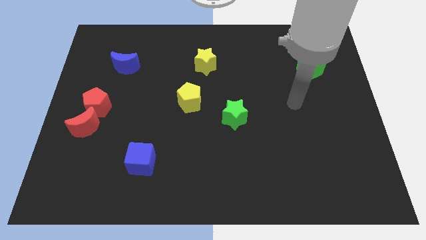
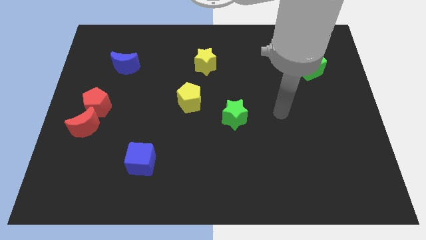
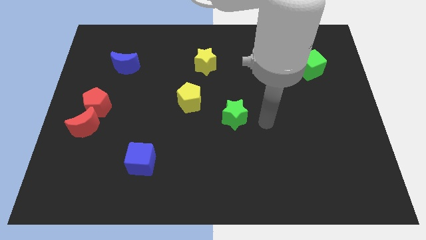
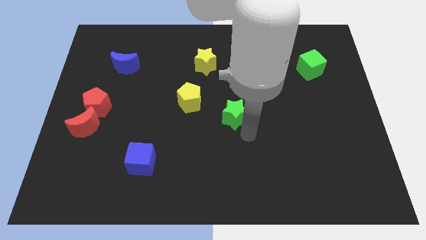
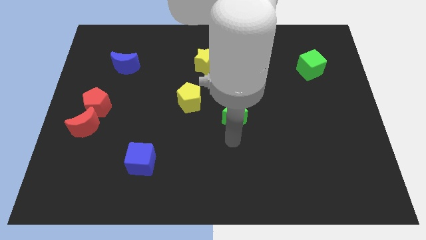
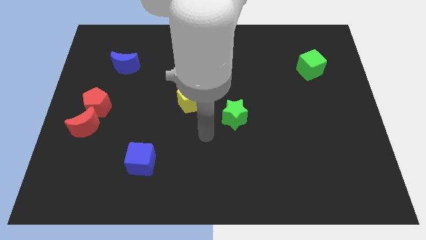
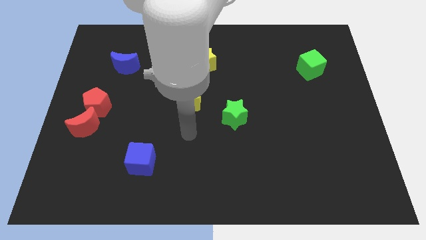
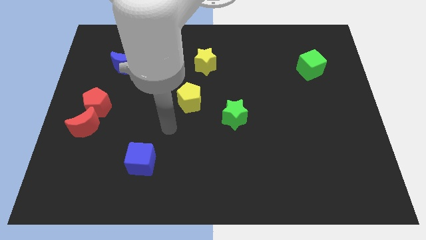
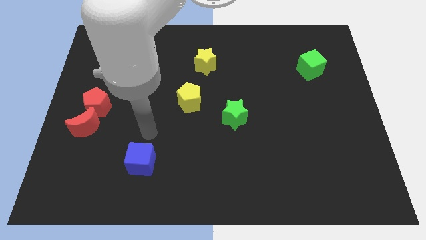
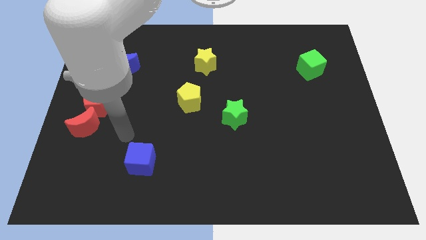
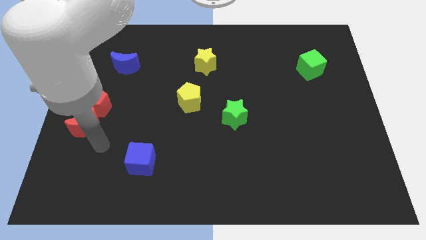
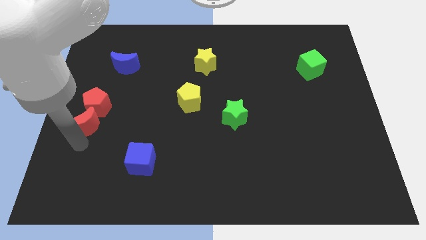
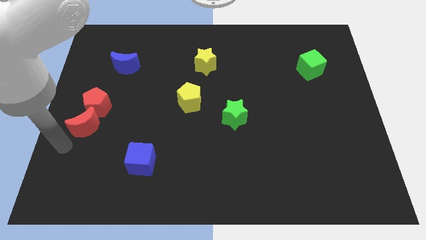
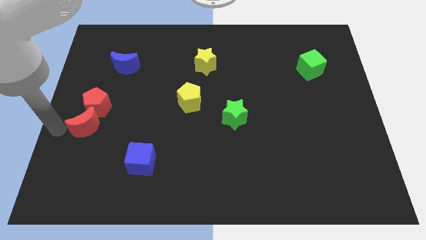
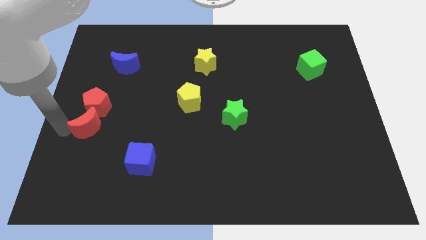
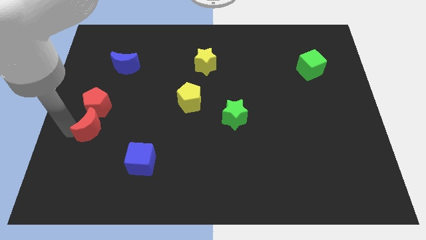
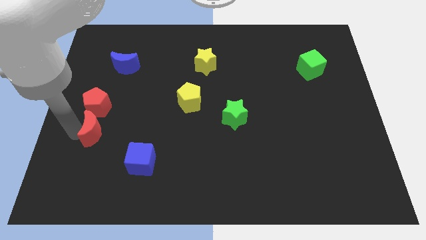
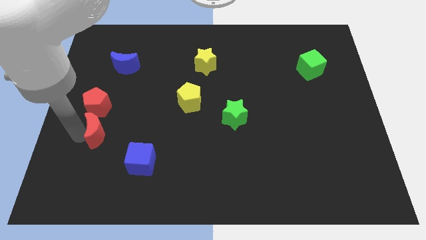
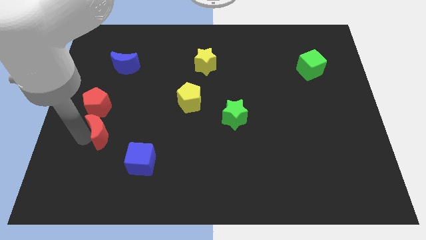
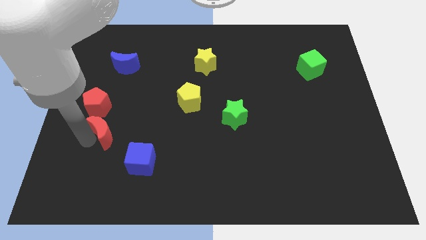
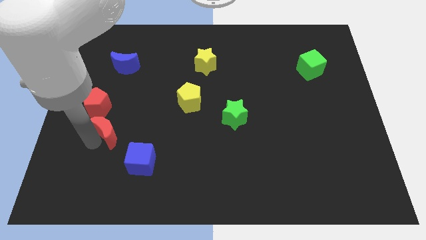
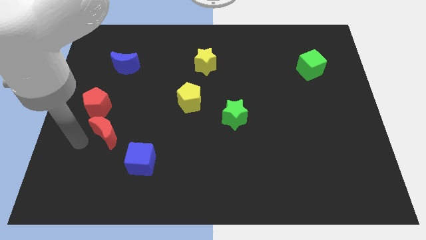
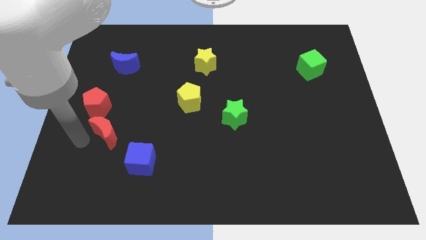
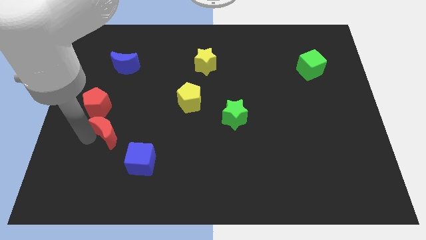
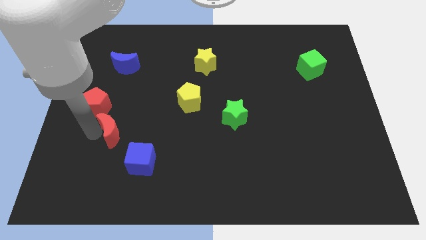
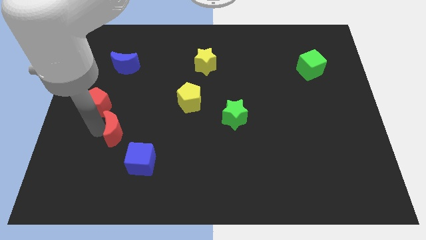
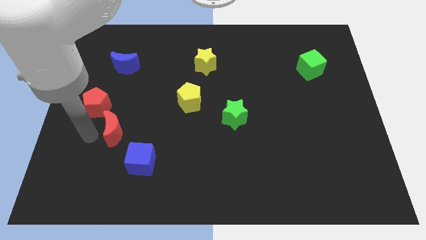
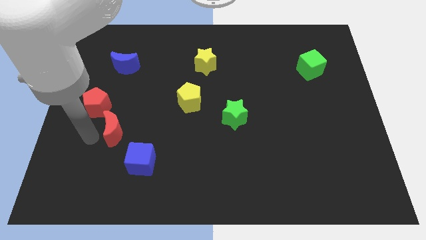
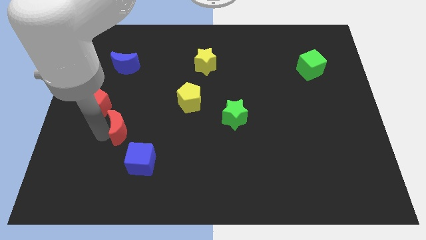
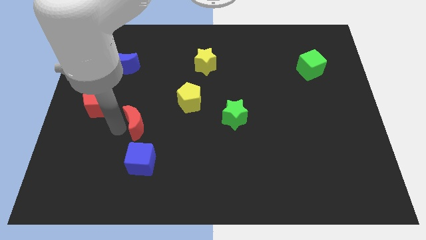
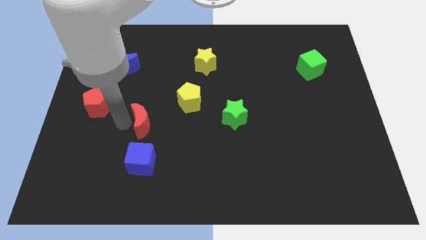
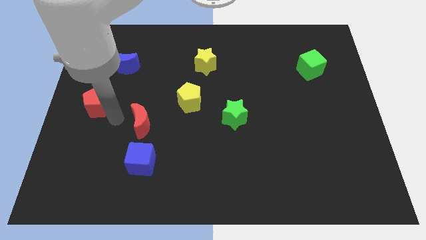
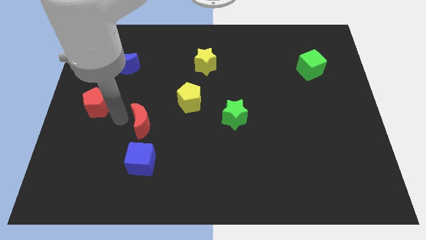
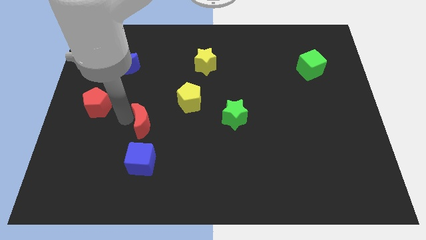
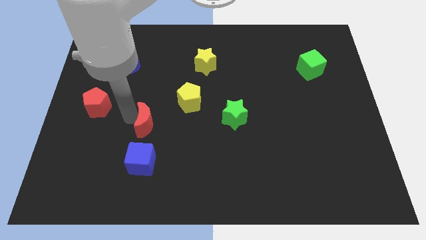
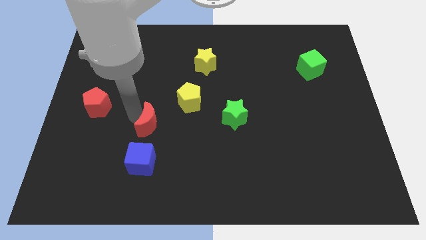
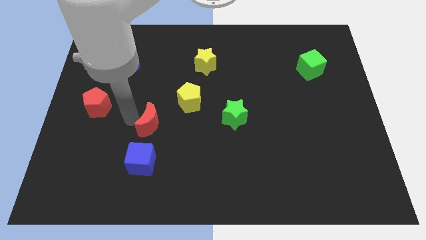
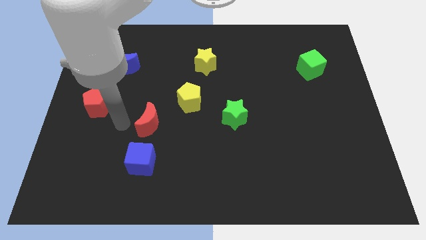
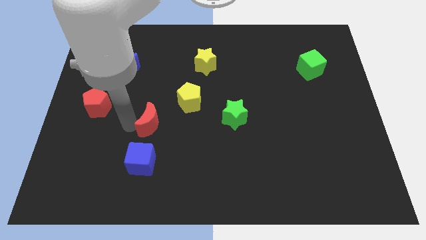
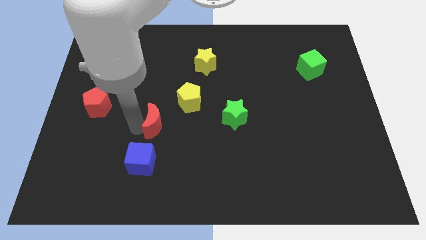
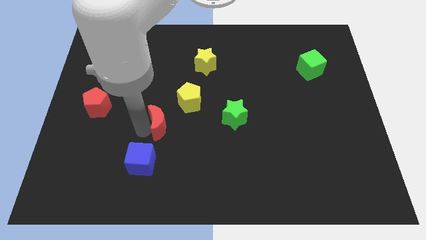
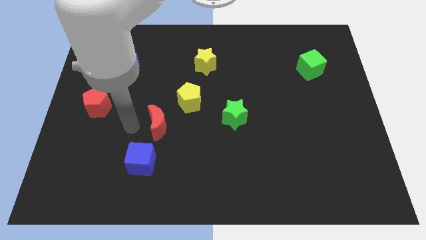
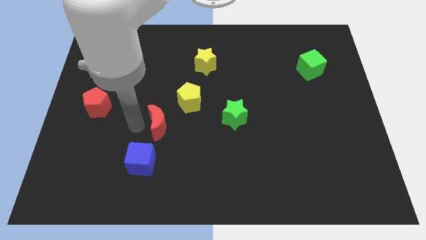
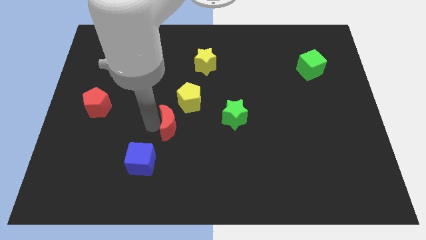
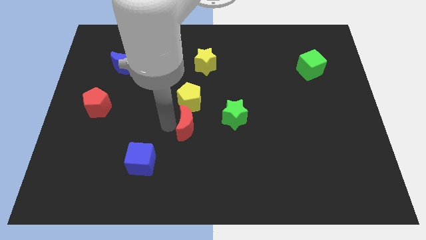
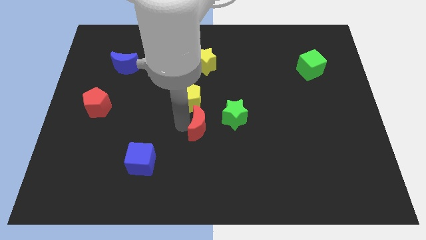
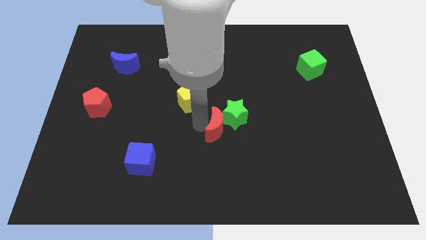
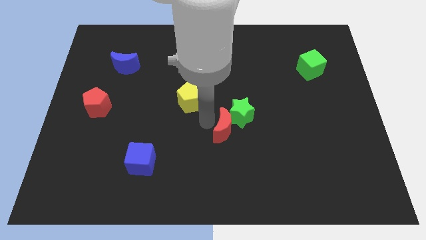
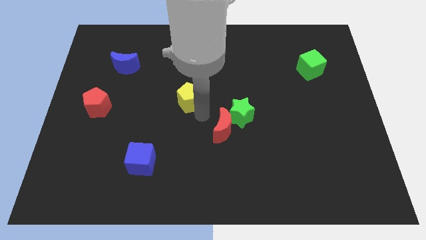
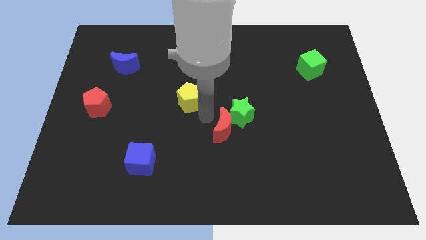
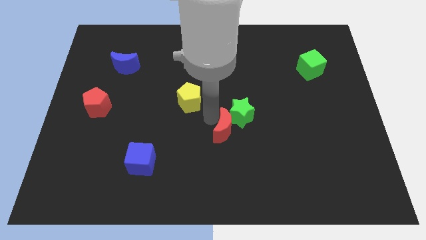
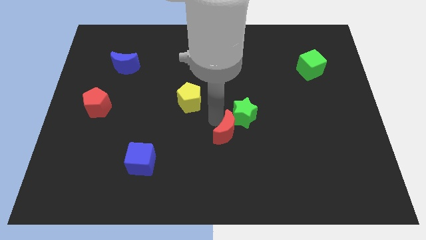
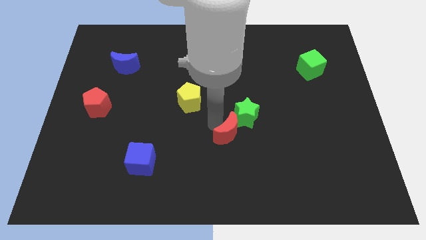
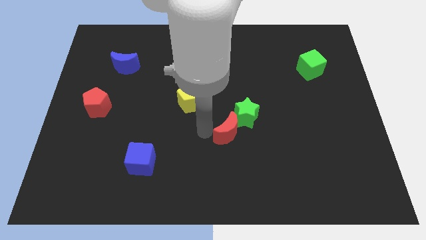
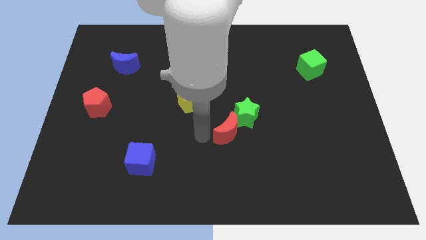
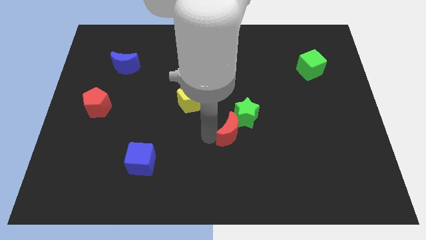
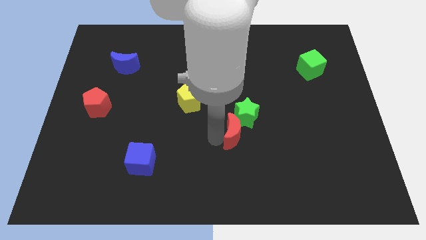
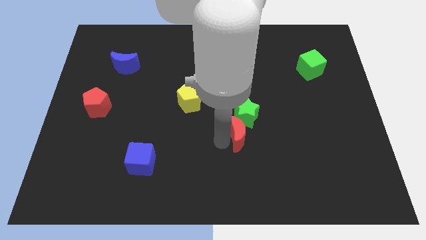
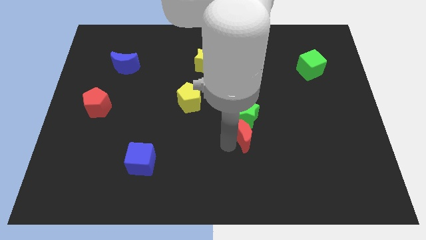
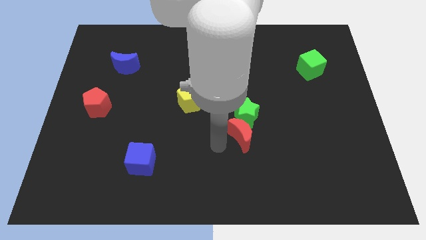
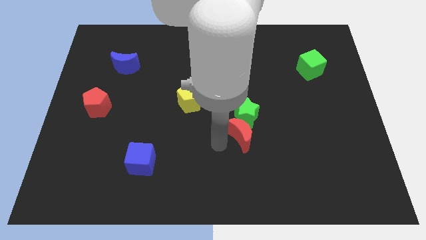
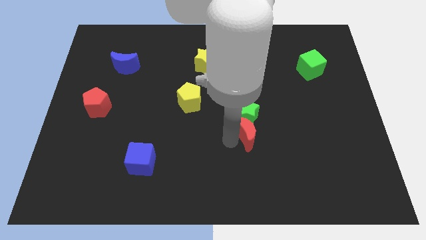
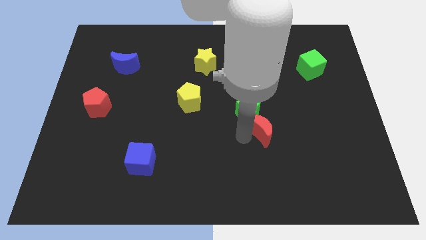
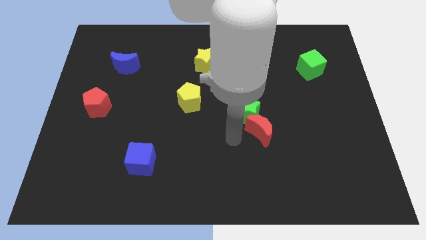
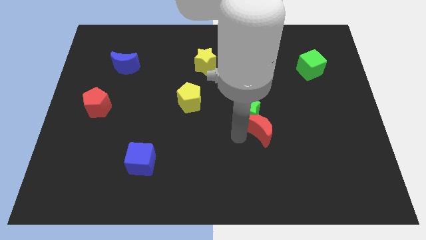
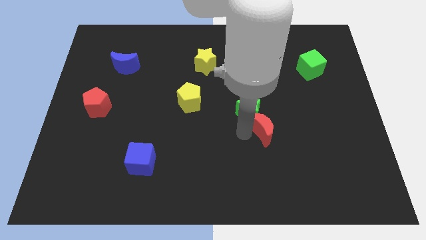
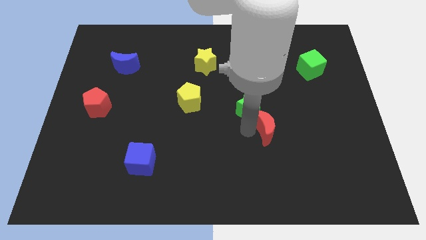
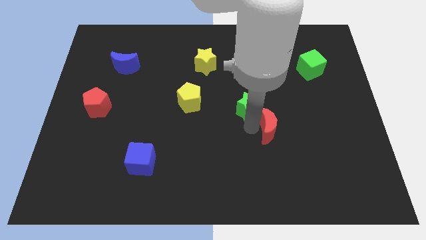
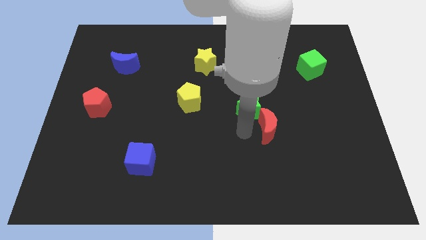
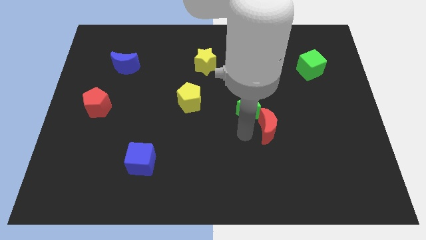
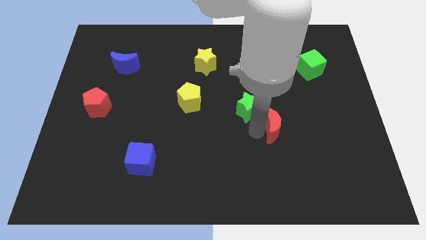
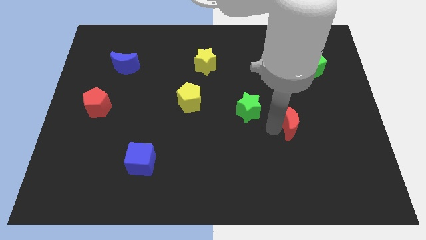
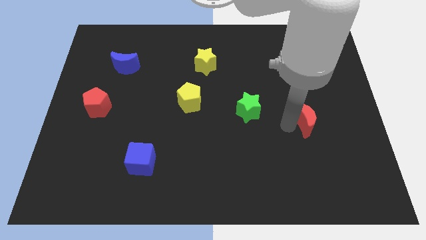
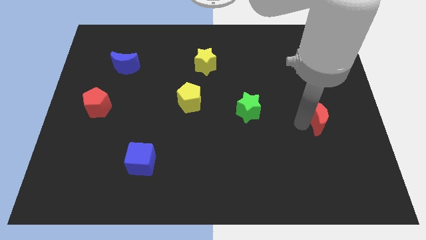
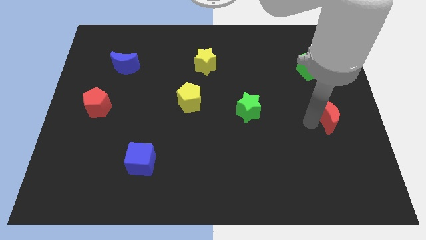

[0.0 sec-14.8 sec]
slide the red moon to the right side of the board
